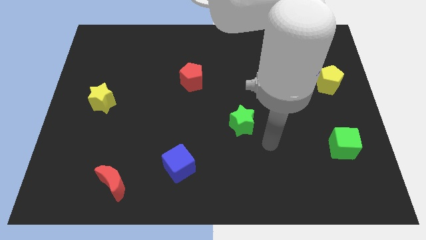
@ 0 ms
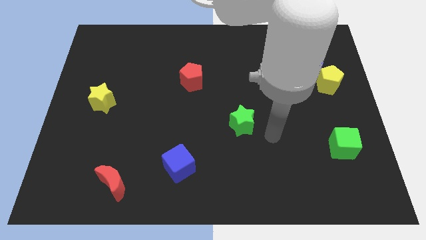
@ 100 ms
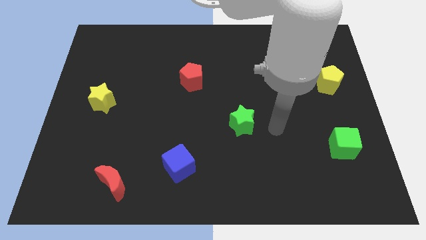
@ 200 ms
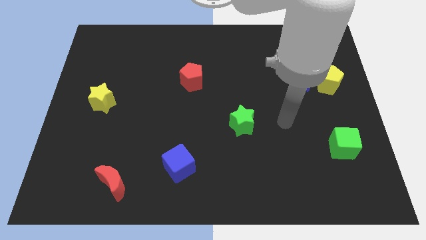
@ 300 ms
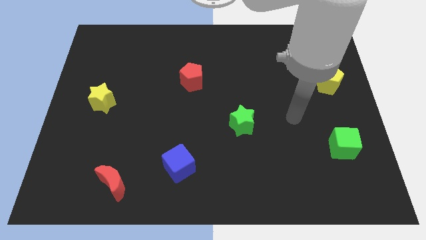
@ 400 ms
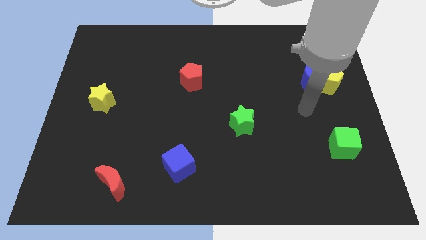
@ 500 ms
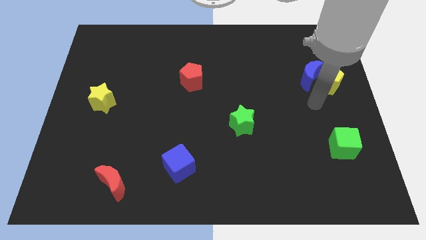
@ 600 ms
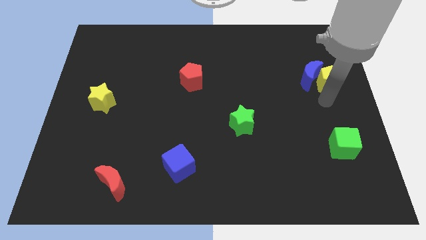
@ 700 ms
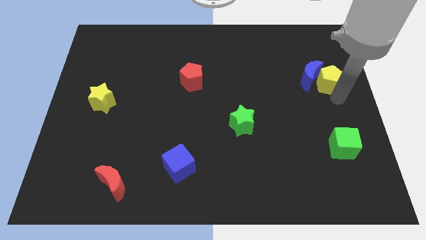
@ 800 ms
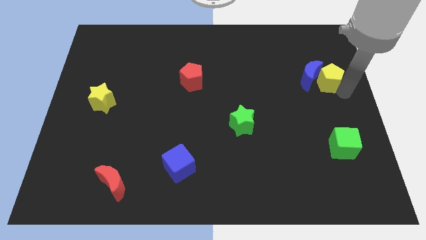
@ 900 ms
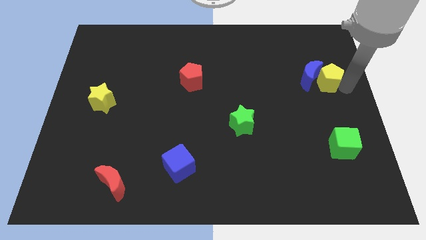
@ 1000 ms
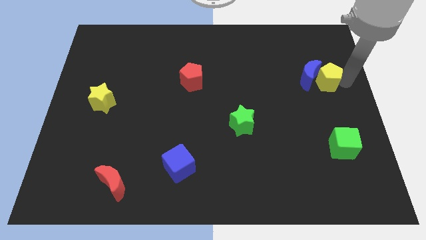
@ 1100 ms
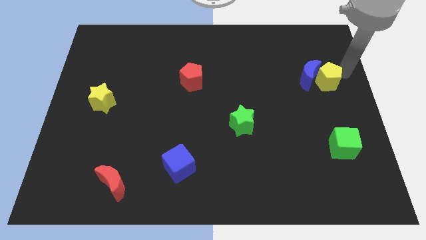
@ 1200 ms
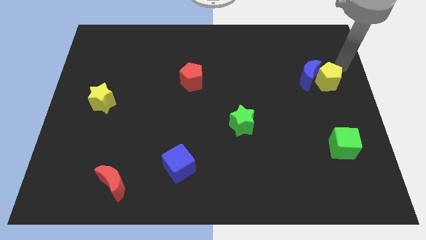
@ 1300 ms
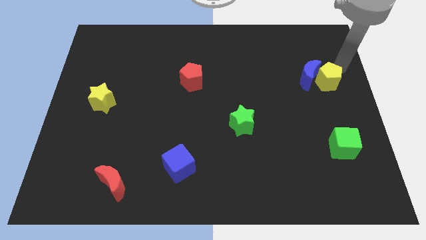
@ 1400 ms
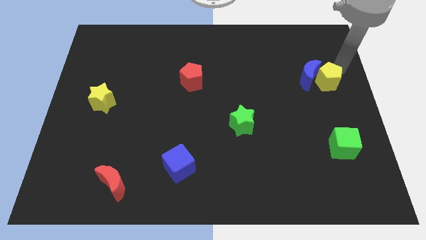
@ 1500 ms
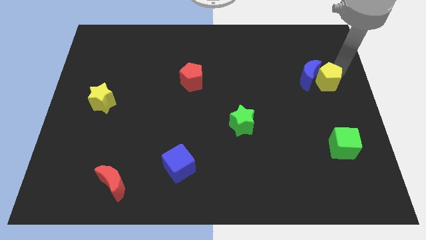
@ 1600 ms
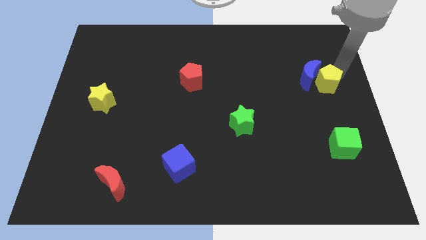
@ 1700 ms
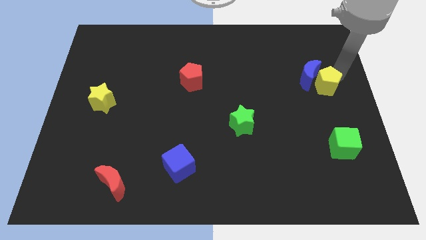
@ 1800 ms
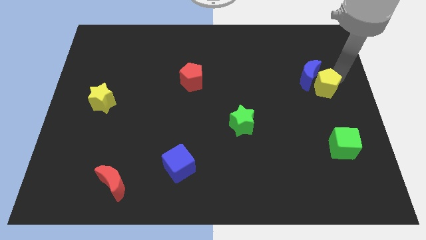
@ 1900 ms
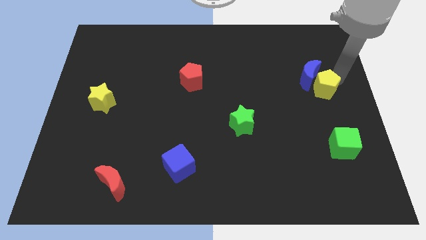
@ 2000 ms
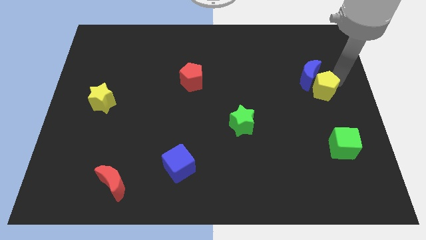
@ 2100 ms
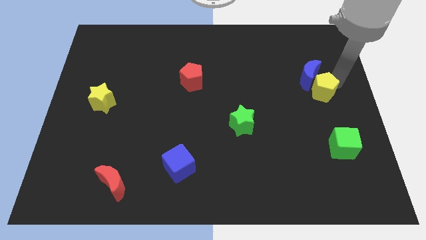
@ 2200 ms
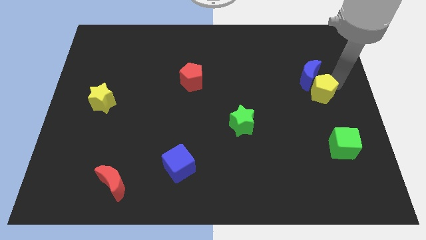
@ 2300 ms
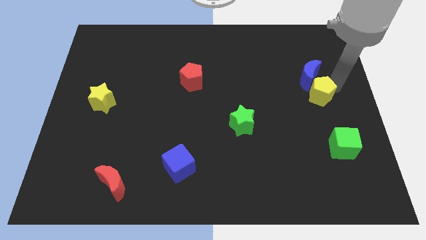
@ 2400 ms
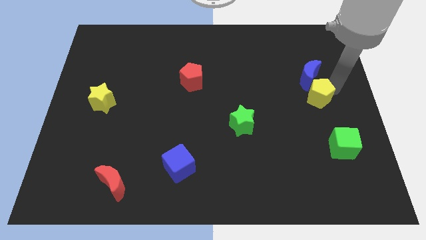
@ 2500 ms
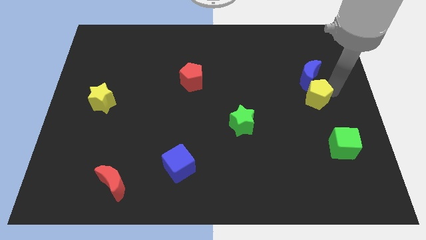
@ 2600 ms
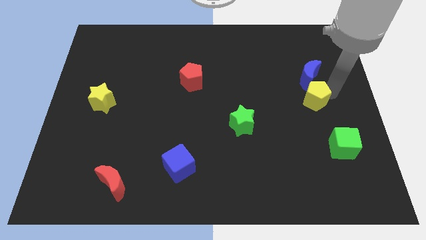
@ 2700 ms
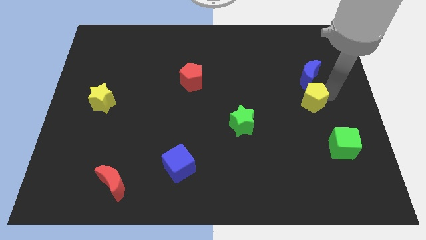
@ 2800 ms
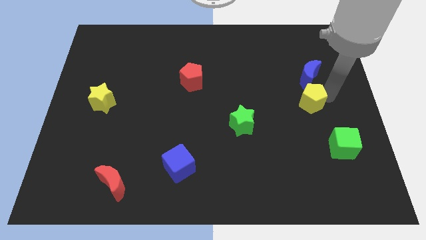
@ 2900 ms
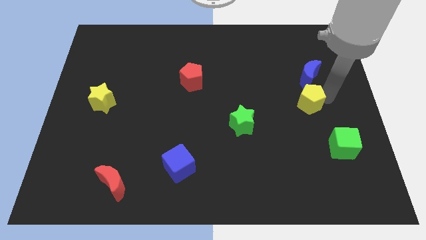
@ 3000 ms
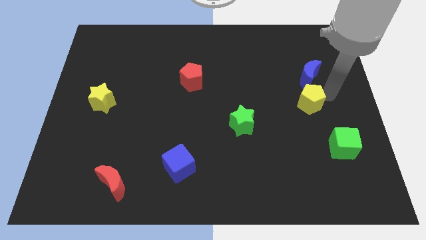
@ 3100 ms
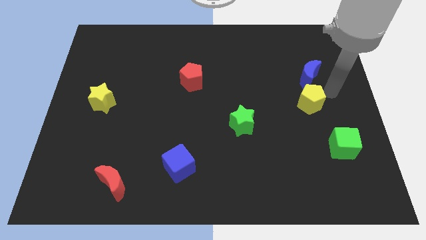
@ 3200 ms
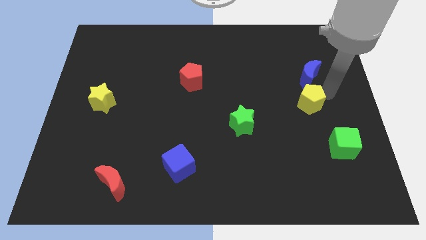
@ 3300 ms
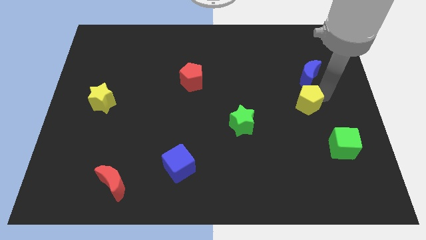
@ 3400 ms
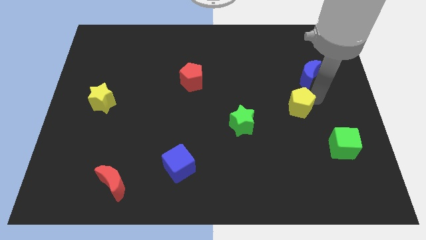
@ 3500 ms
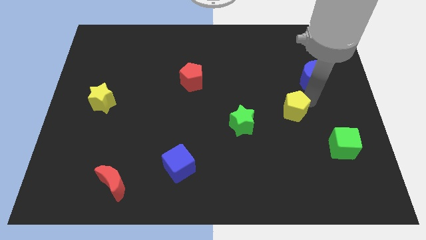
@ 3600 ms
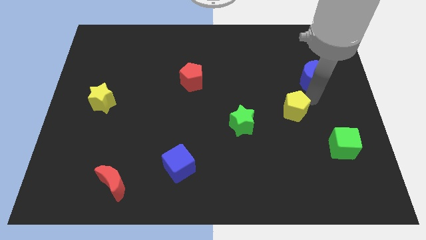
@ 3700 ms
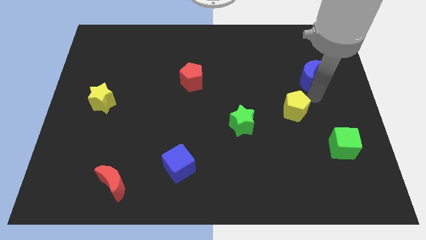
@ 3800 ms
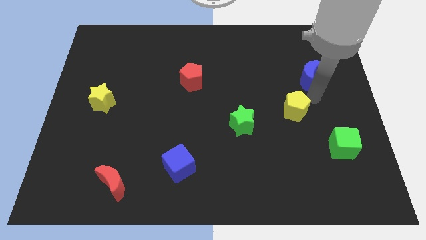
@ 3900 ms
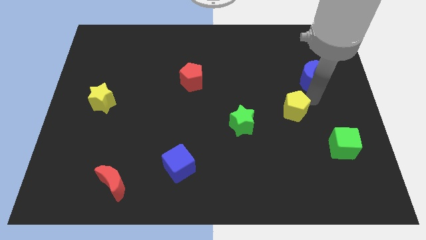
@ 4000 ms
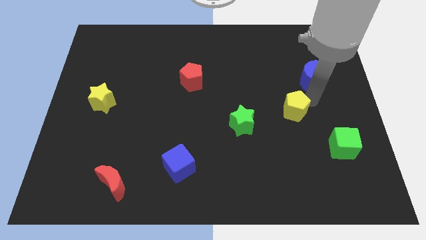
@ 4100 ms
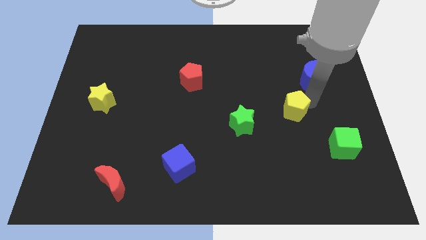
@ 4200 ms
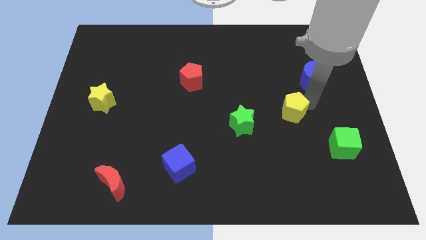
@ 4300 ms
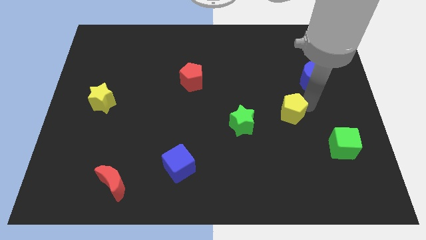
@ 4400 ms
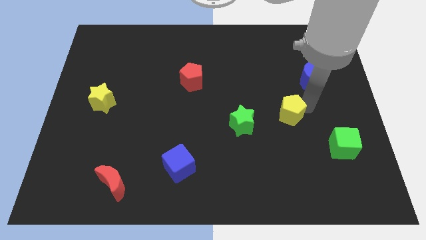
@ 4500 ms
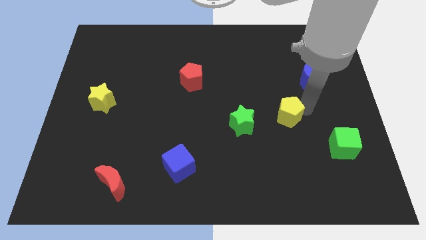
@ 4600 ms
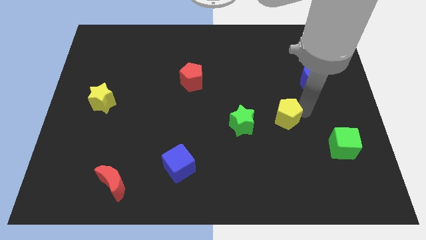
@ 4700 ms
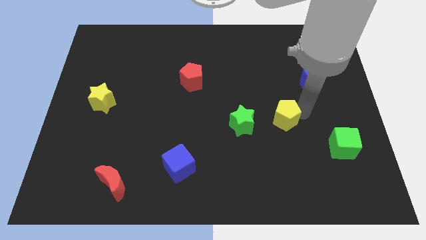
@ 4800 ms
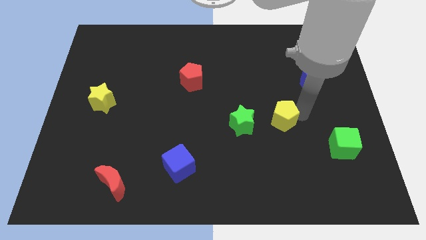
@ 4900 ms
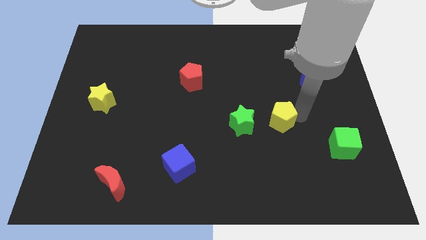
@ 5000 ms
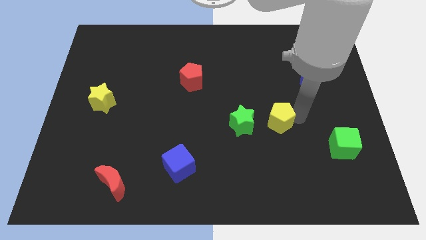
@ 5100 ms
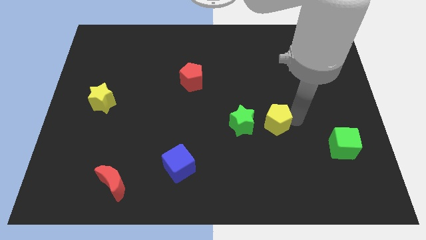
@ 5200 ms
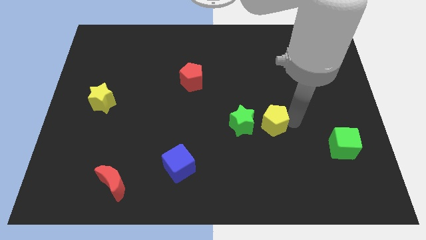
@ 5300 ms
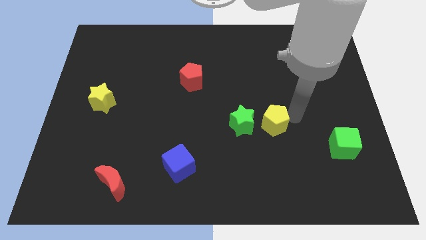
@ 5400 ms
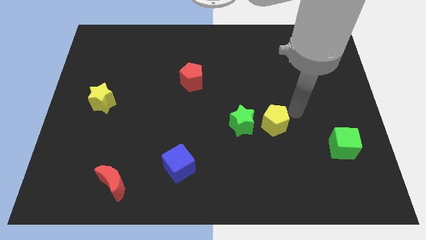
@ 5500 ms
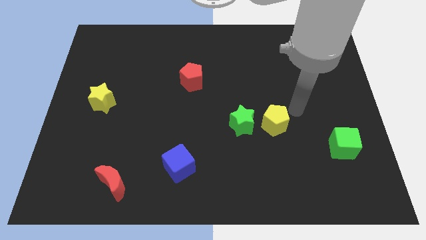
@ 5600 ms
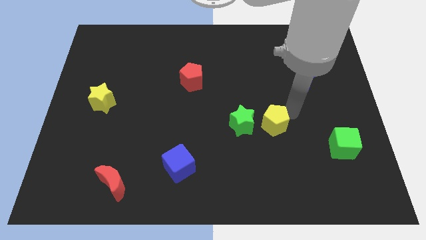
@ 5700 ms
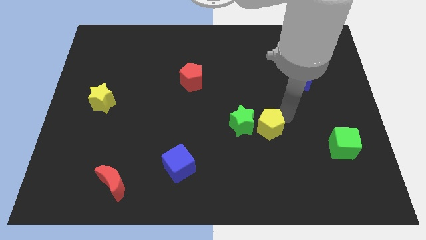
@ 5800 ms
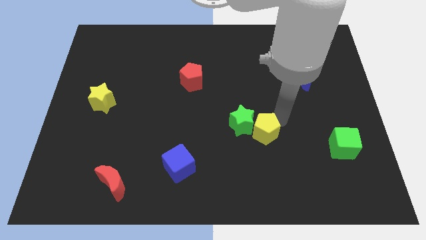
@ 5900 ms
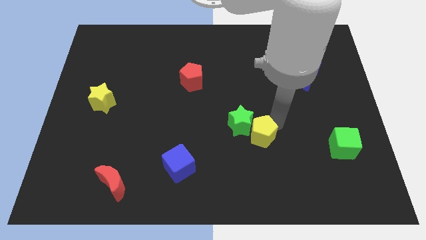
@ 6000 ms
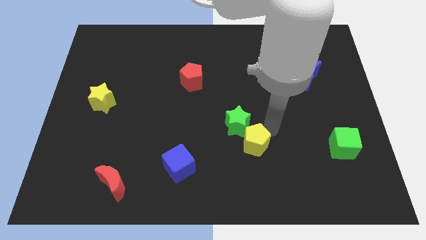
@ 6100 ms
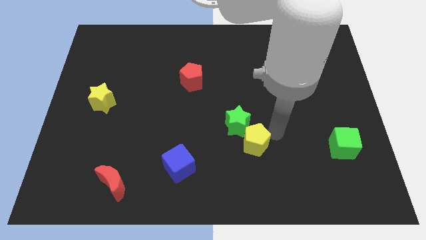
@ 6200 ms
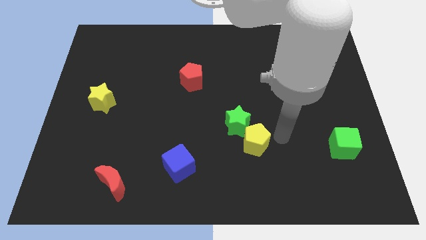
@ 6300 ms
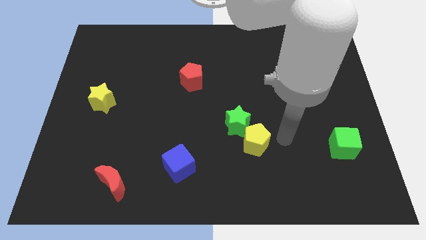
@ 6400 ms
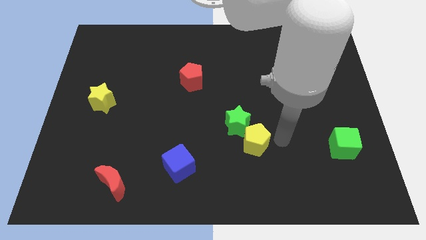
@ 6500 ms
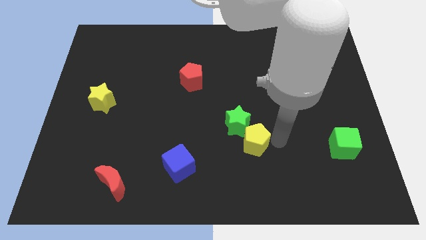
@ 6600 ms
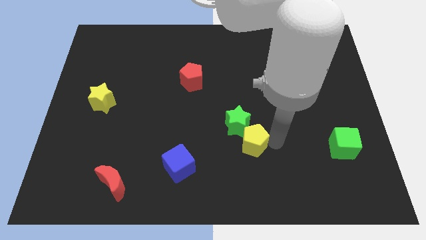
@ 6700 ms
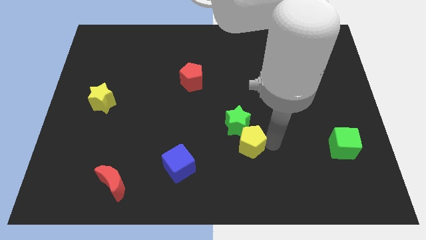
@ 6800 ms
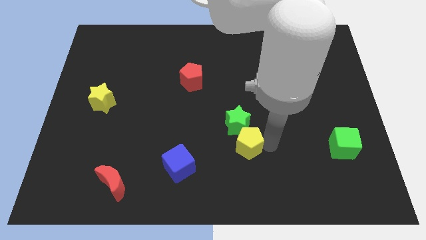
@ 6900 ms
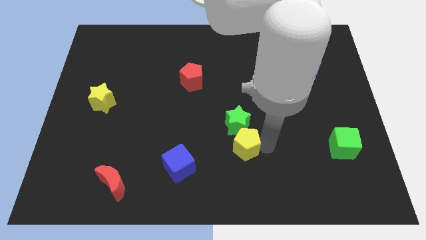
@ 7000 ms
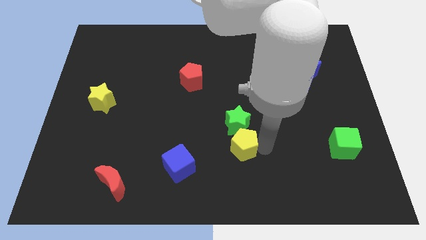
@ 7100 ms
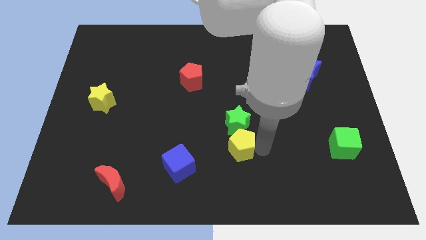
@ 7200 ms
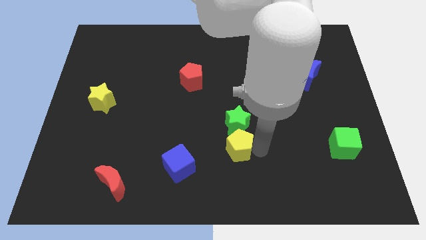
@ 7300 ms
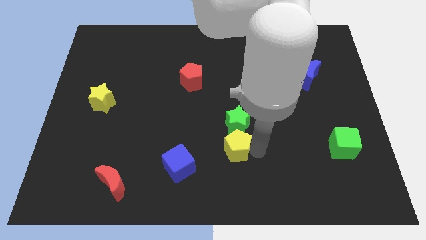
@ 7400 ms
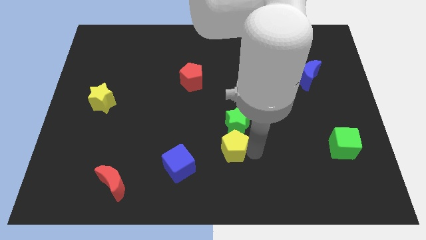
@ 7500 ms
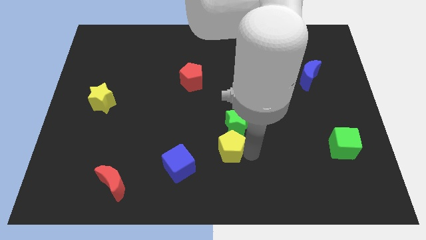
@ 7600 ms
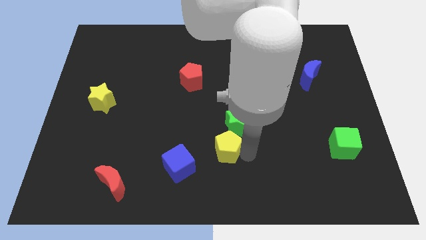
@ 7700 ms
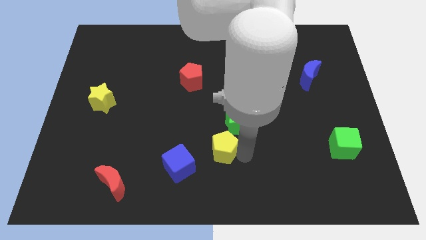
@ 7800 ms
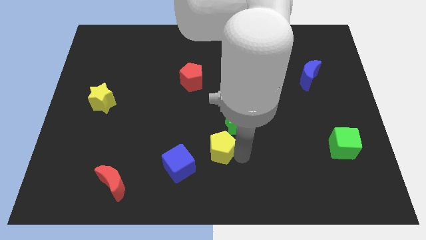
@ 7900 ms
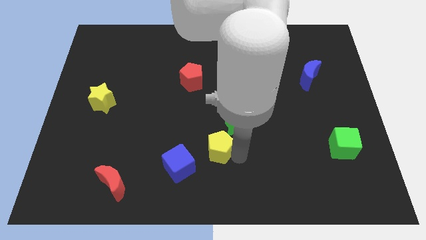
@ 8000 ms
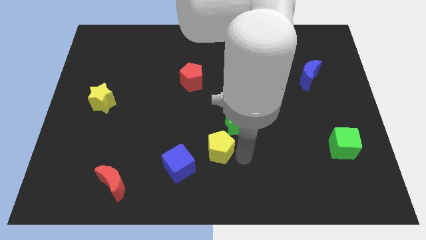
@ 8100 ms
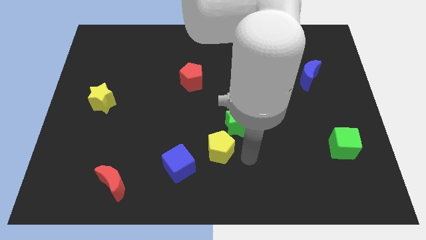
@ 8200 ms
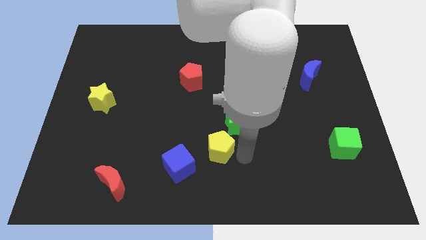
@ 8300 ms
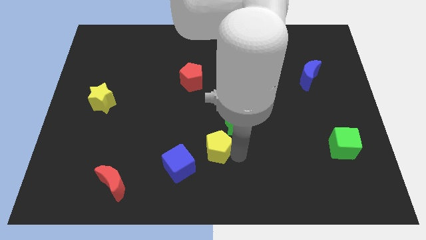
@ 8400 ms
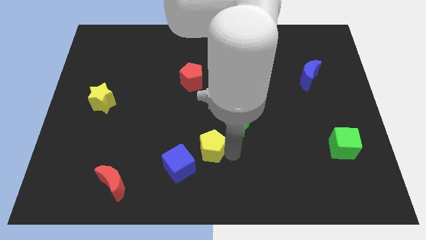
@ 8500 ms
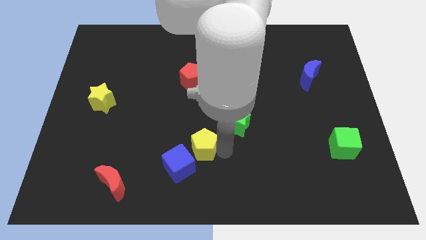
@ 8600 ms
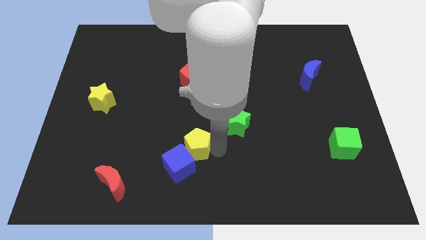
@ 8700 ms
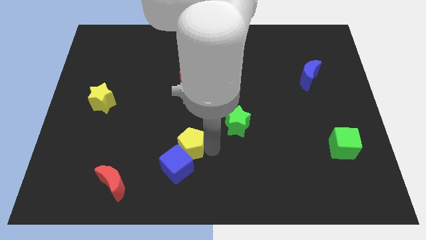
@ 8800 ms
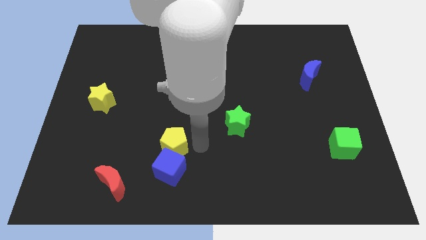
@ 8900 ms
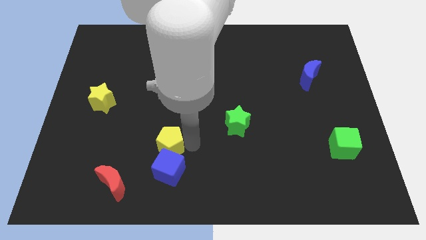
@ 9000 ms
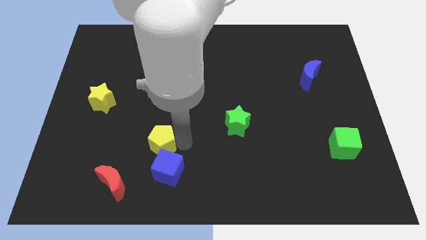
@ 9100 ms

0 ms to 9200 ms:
move the yellow pentagon to the top right side of the red moon
